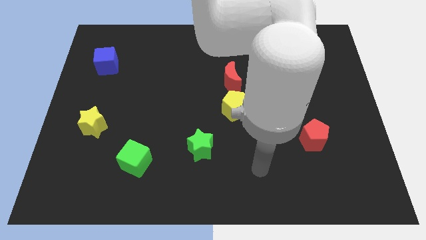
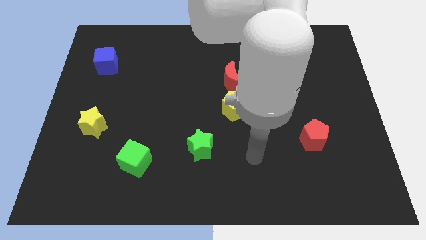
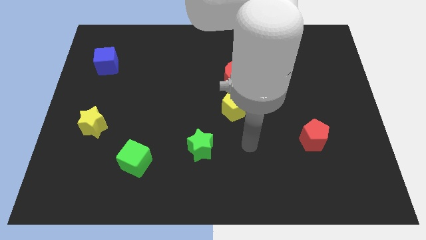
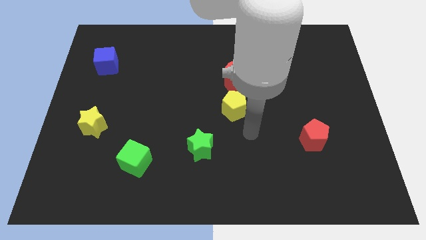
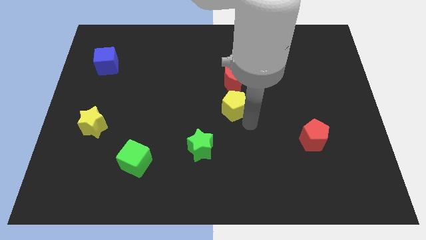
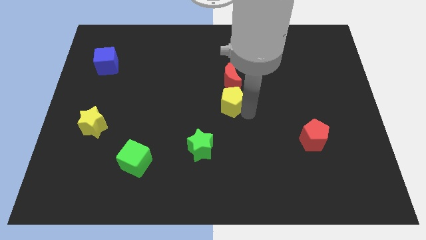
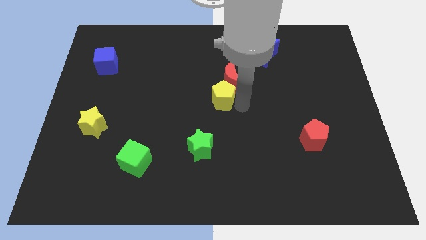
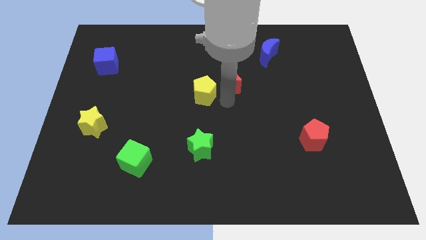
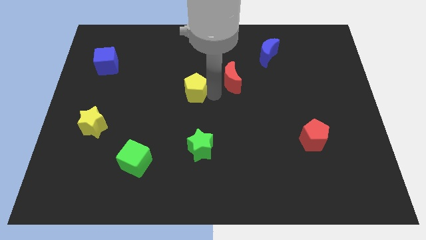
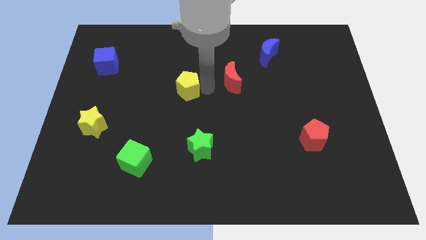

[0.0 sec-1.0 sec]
pull the red moon apart from the yellow pentagon

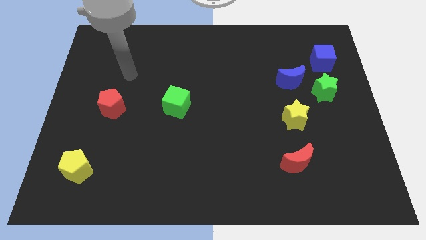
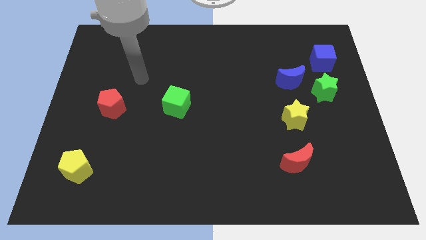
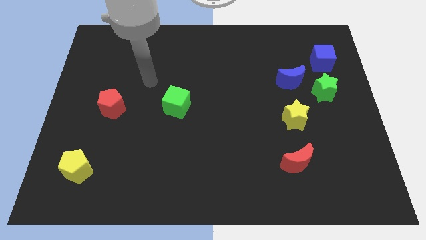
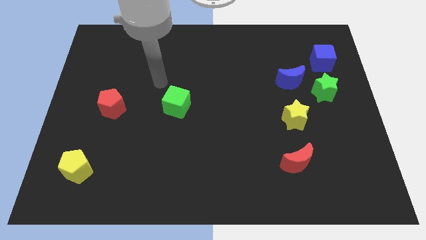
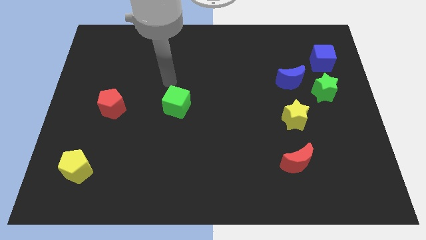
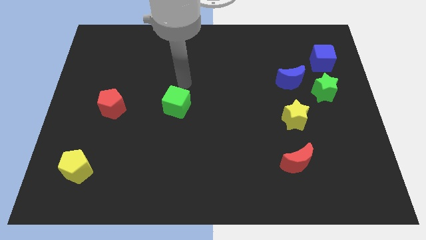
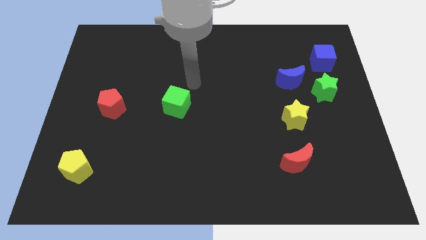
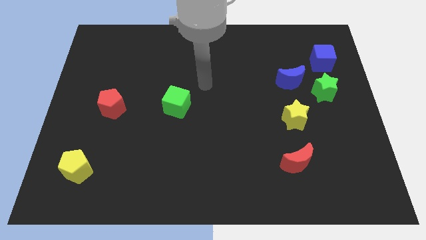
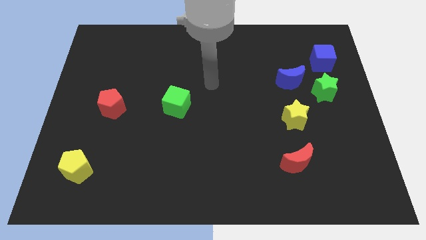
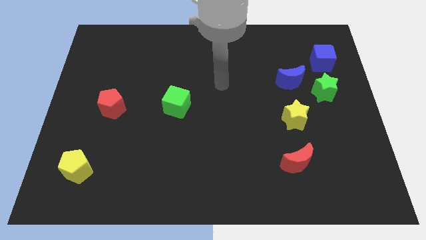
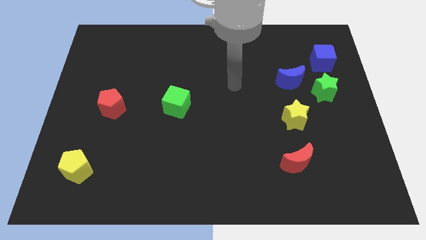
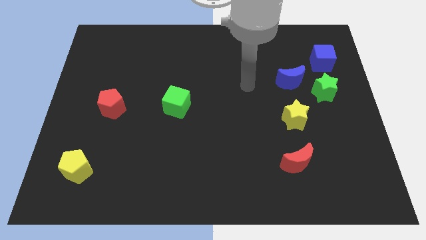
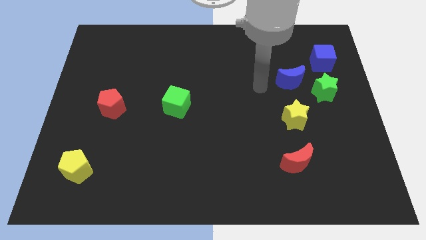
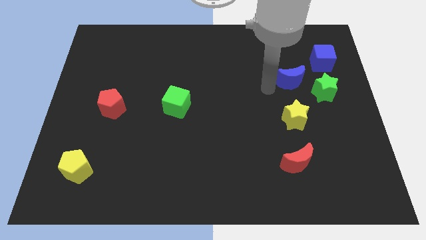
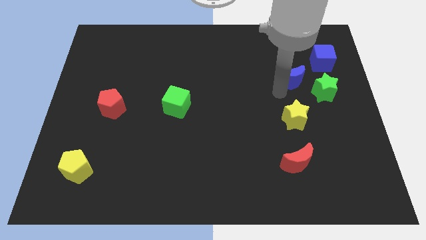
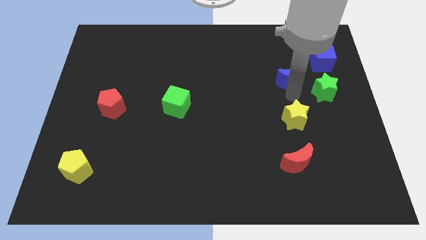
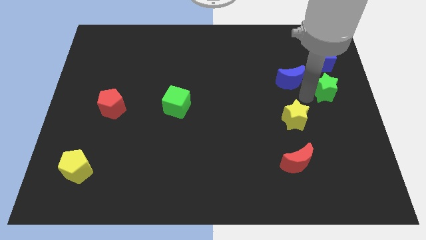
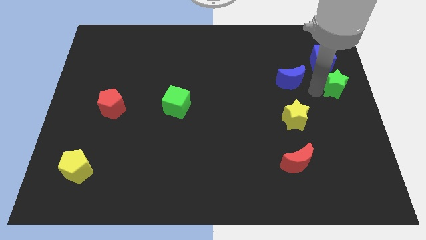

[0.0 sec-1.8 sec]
separate the blue moon from the green star

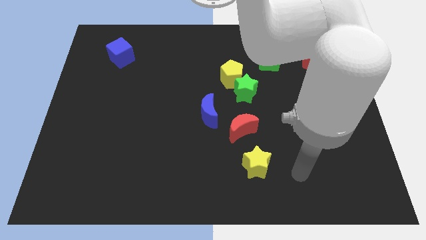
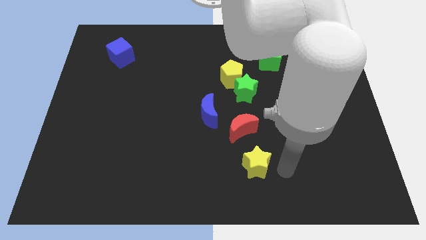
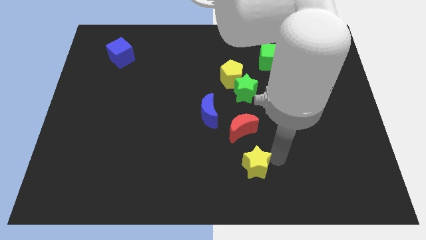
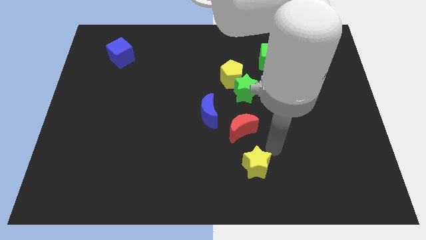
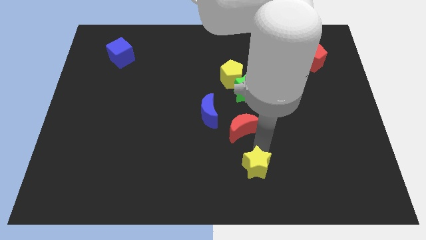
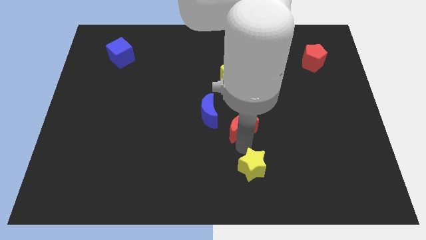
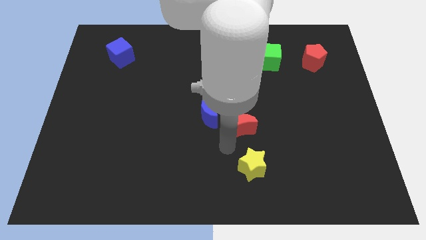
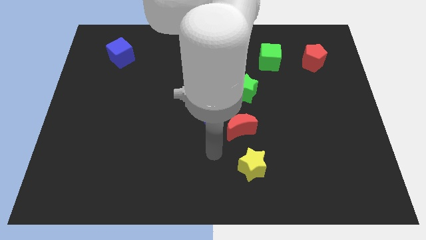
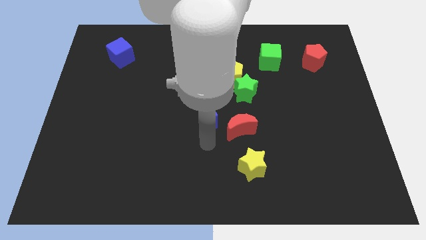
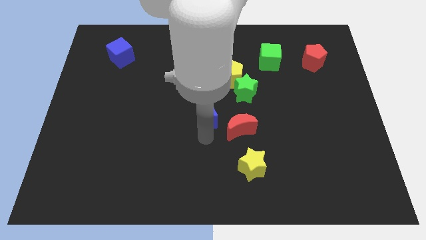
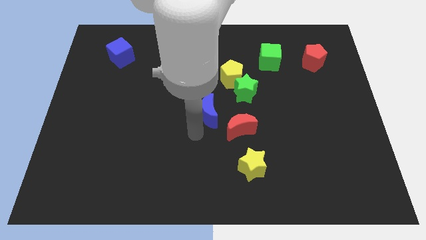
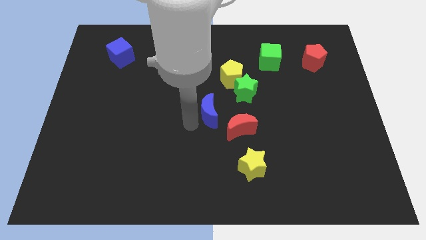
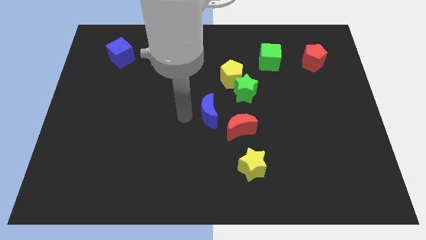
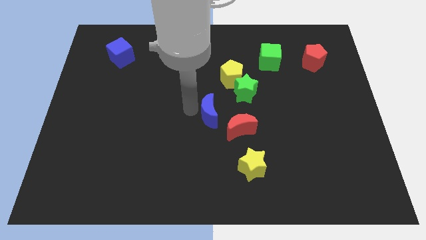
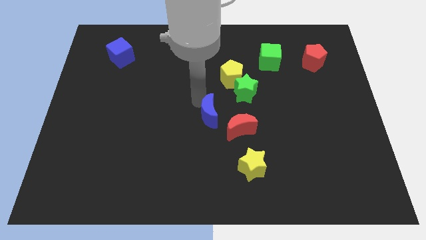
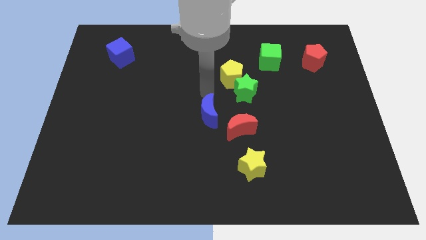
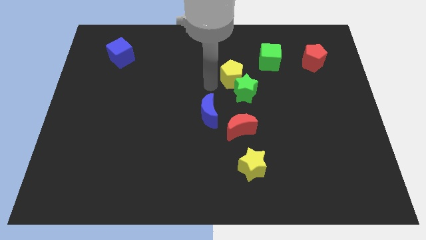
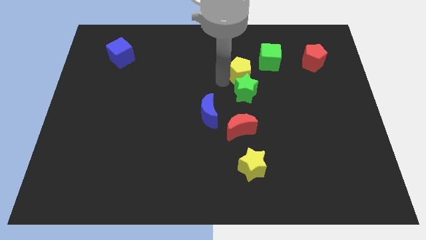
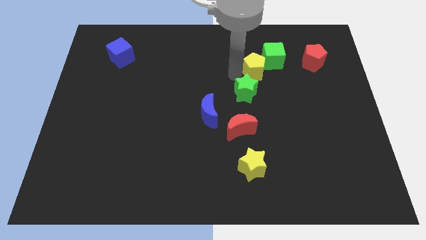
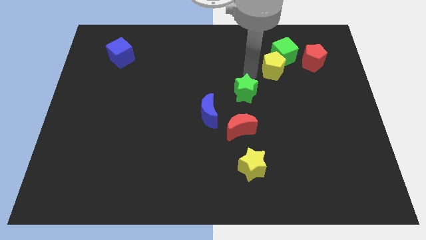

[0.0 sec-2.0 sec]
move the green star away from the yellow pentagon

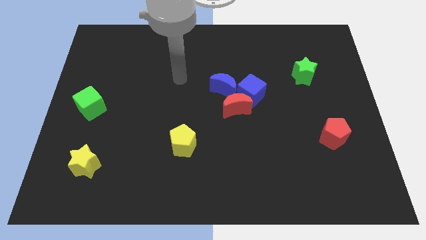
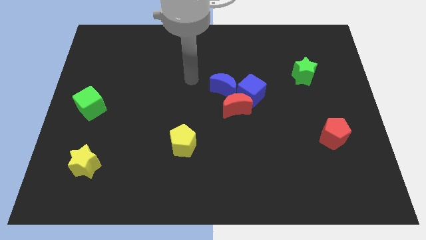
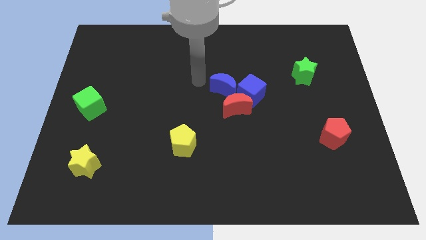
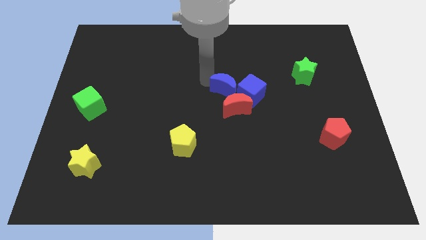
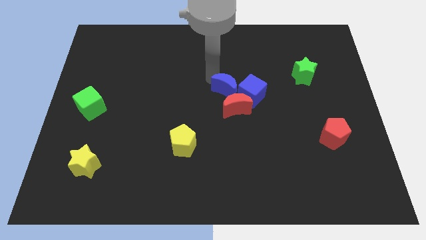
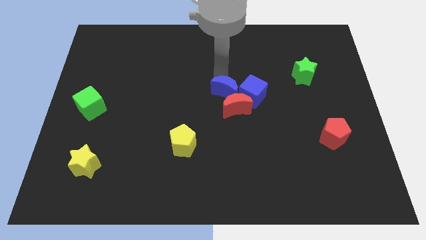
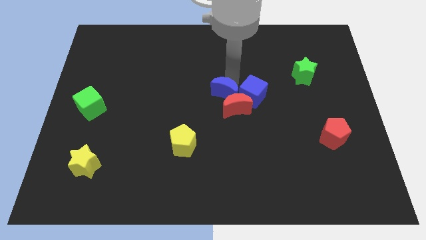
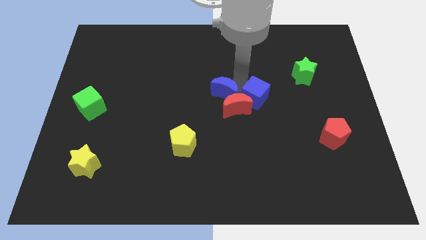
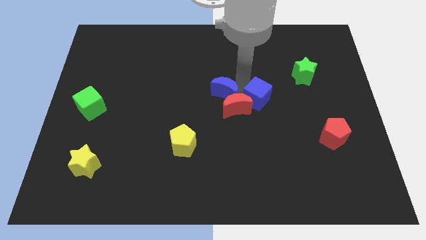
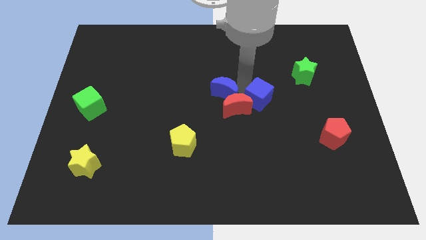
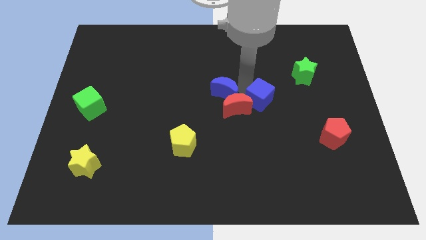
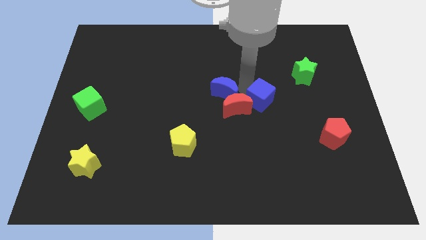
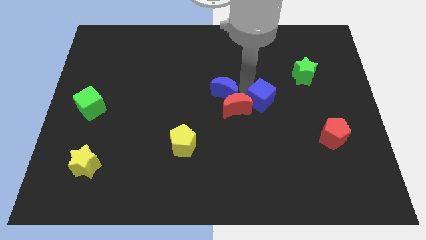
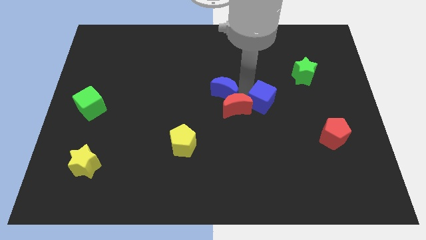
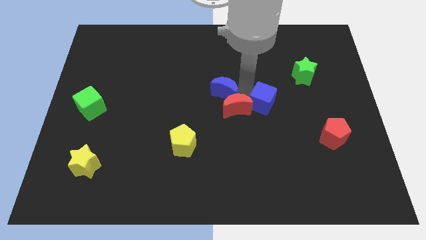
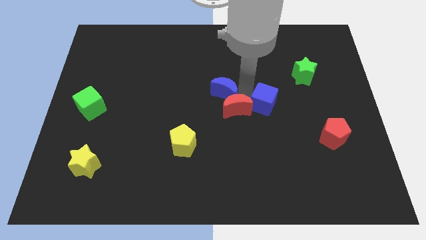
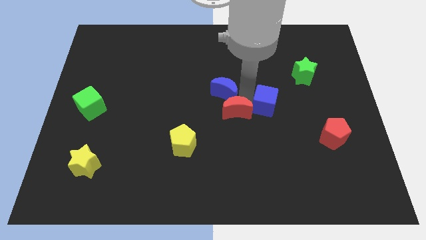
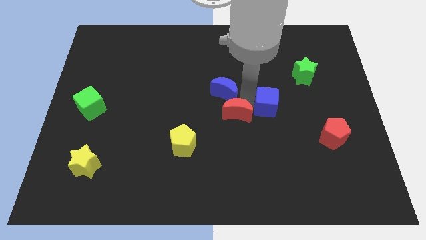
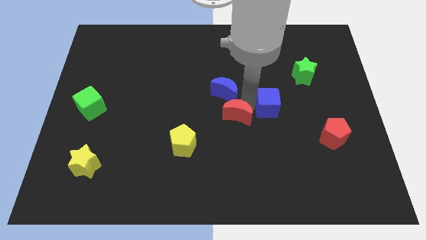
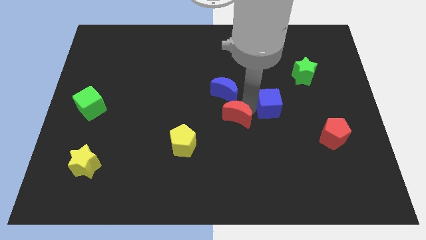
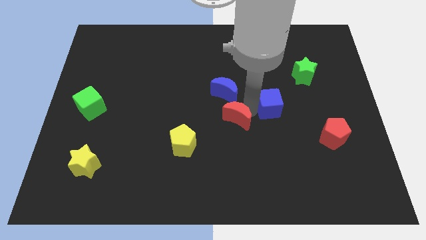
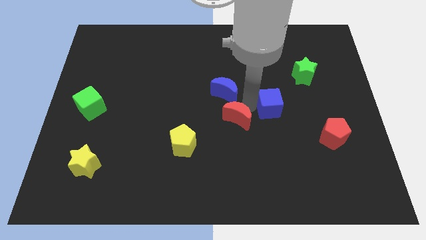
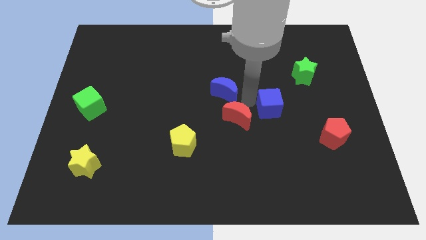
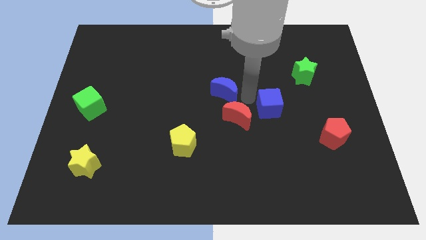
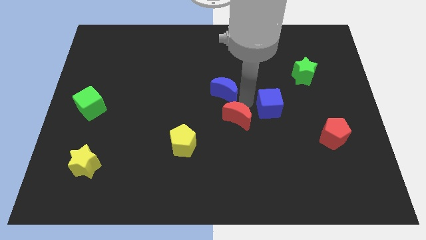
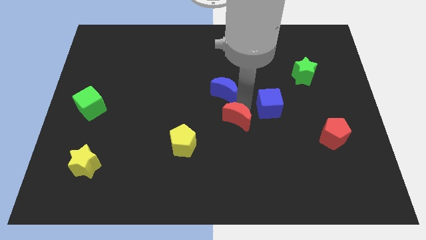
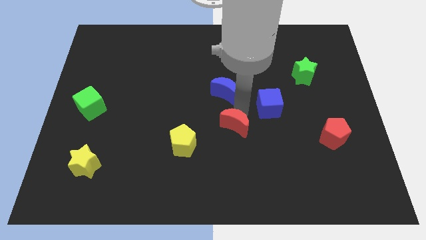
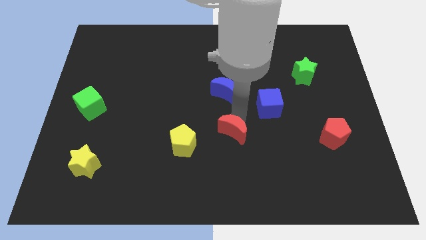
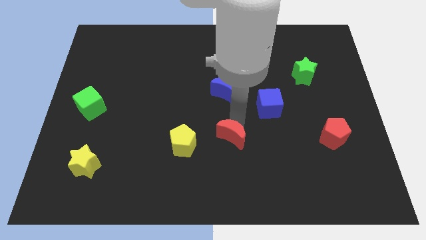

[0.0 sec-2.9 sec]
move the red moon away from the blue cube and blue moon

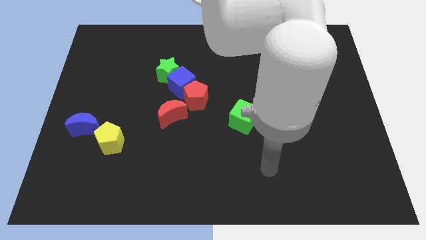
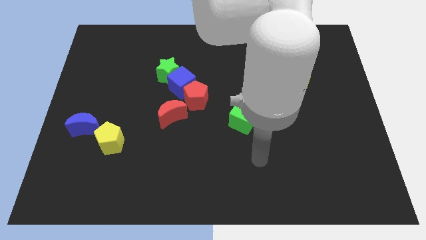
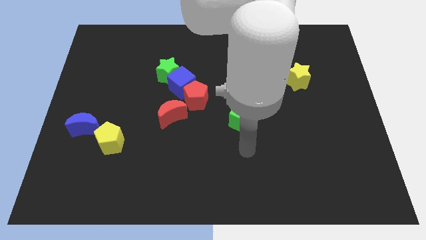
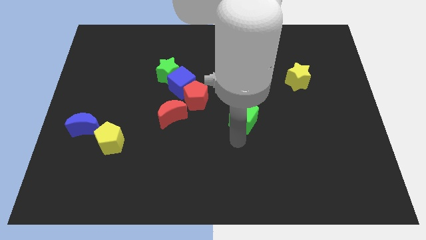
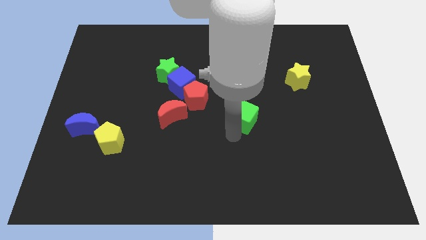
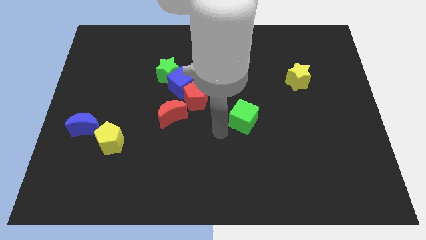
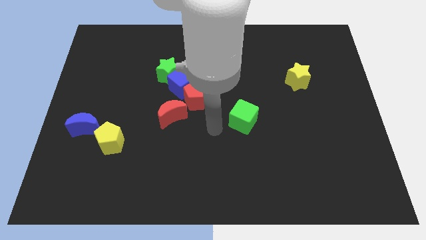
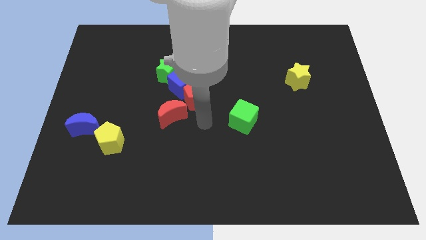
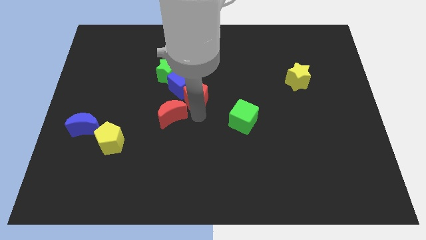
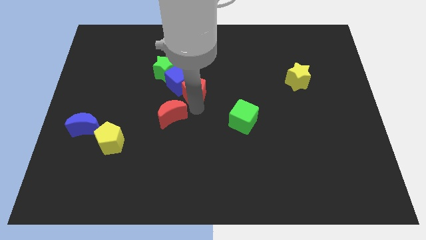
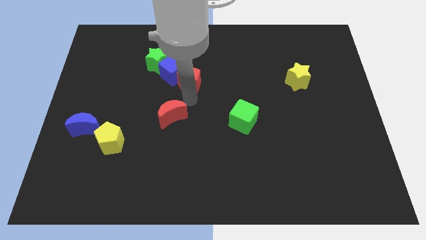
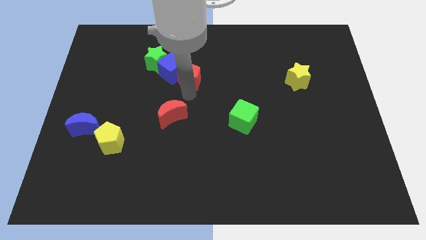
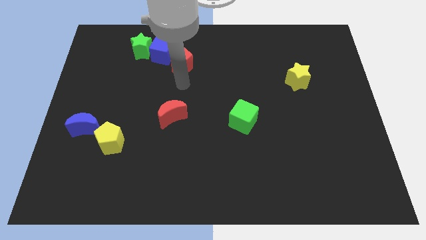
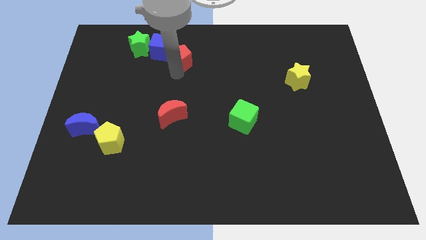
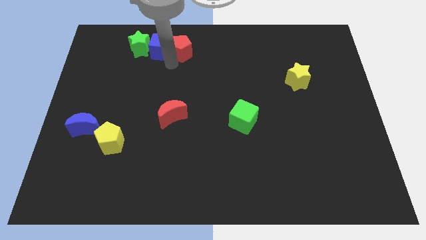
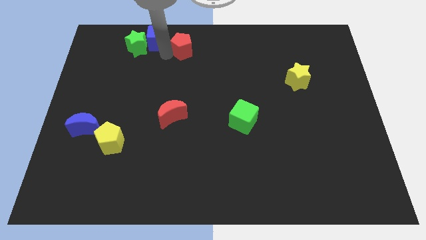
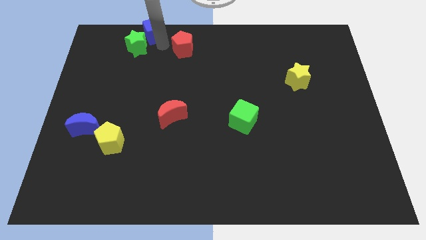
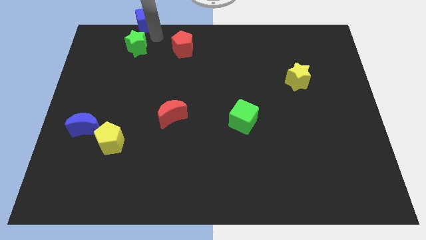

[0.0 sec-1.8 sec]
pull the green star apart from the blue cube
